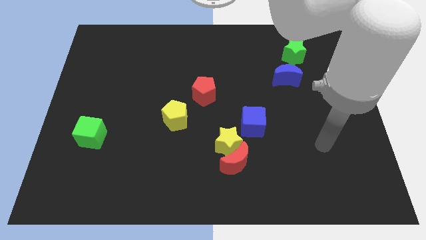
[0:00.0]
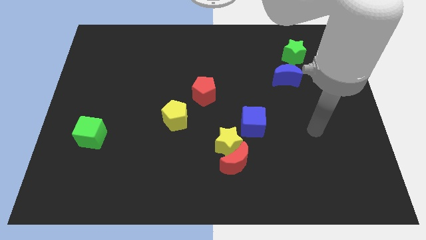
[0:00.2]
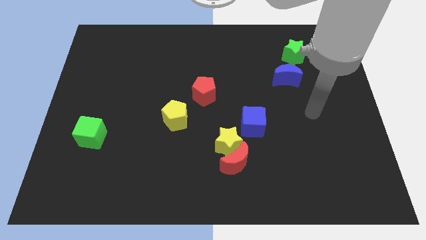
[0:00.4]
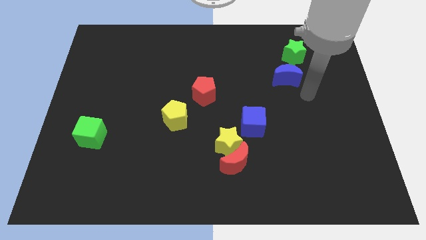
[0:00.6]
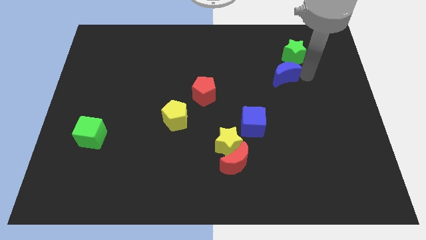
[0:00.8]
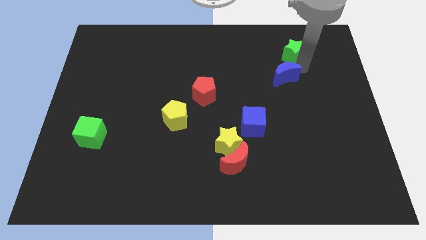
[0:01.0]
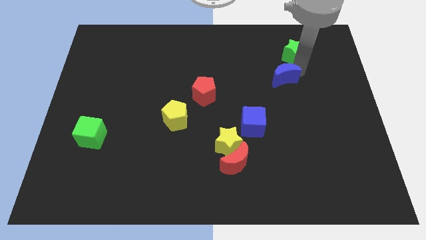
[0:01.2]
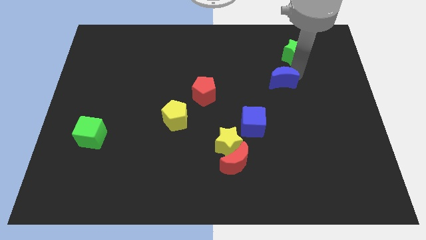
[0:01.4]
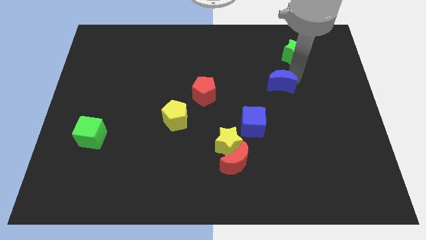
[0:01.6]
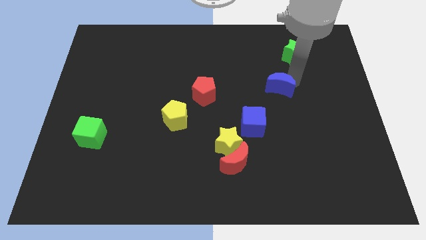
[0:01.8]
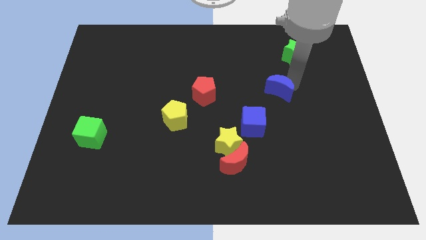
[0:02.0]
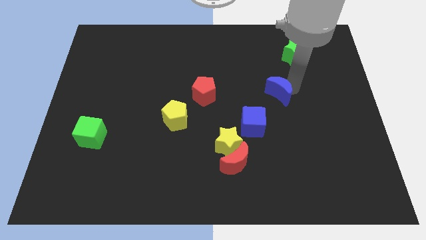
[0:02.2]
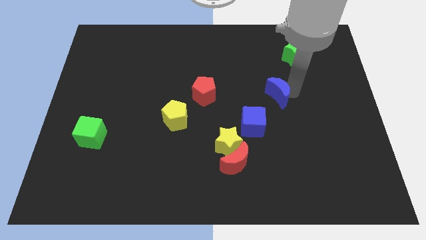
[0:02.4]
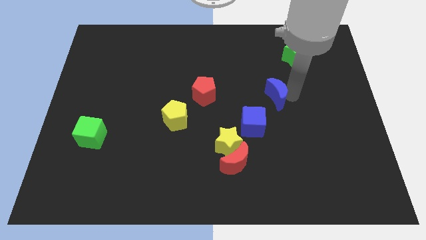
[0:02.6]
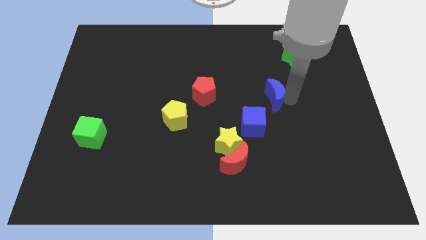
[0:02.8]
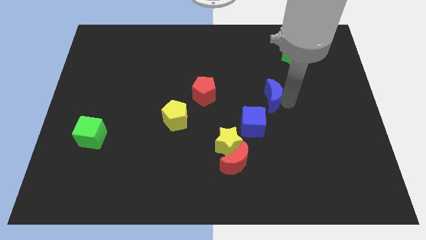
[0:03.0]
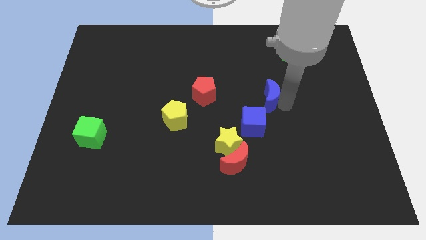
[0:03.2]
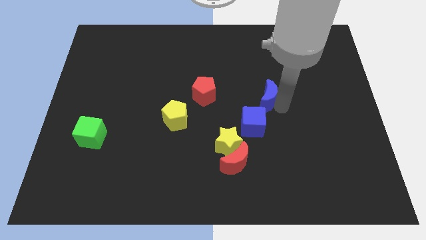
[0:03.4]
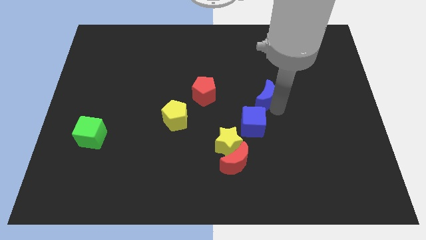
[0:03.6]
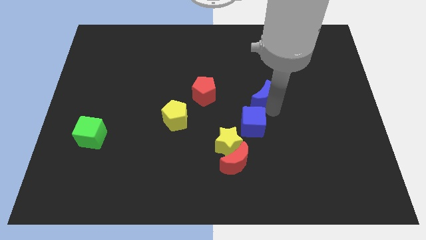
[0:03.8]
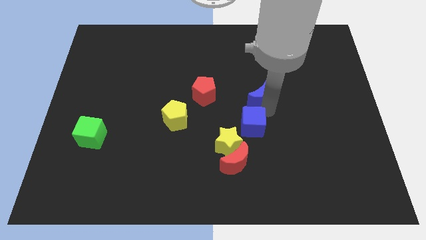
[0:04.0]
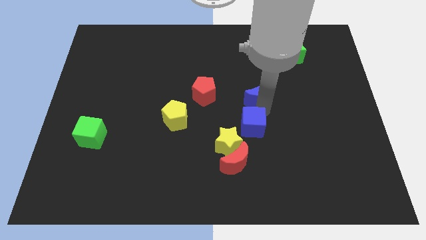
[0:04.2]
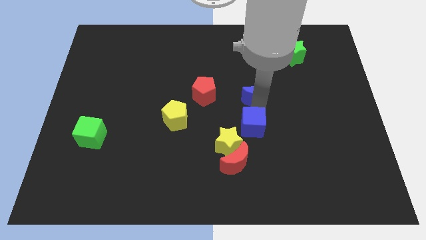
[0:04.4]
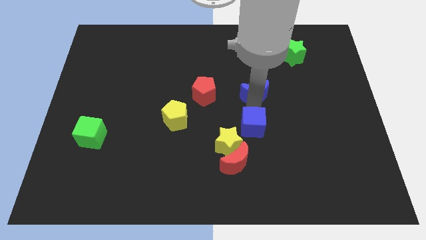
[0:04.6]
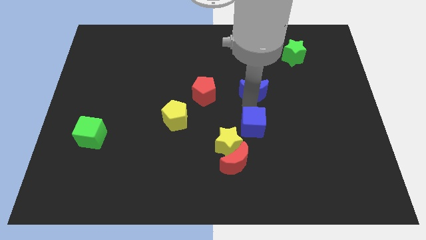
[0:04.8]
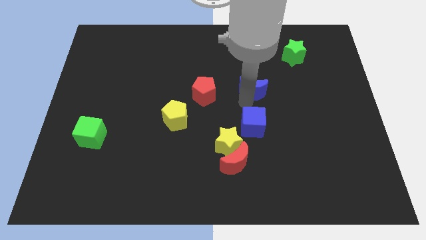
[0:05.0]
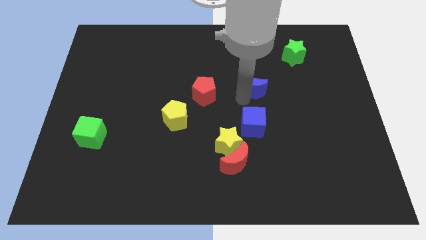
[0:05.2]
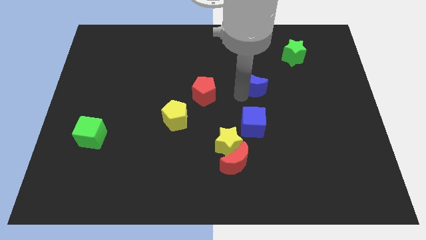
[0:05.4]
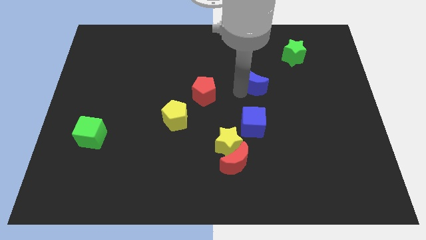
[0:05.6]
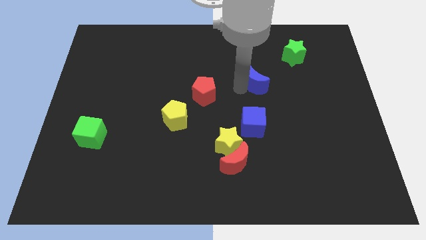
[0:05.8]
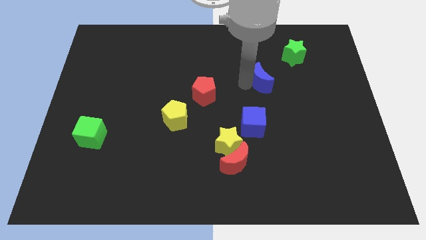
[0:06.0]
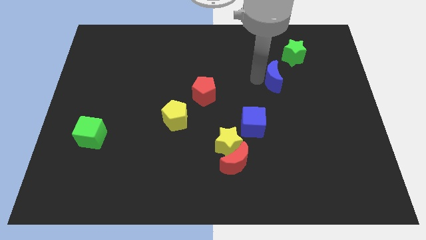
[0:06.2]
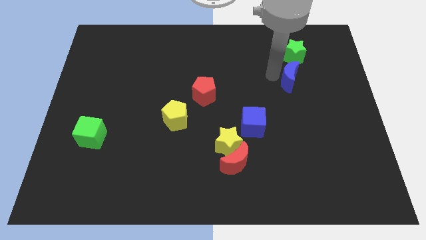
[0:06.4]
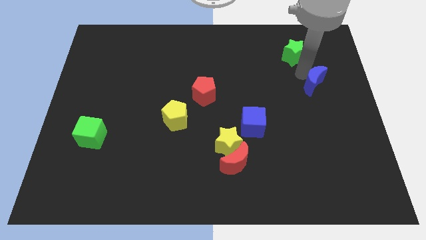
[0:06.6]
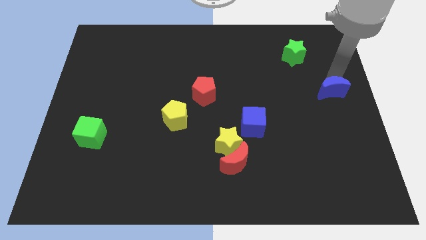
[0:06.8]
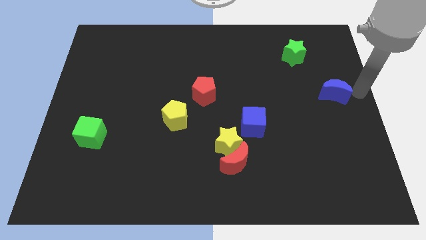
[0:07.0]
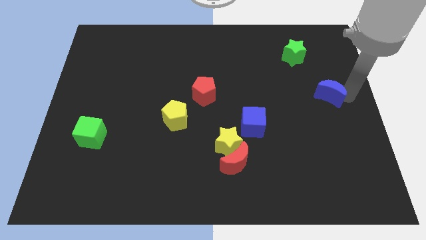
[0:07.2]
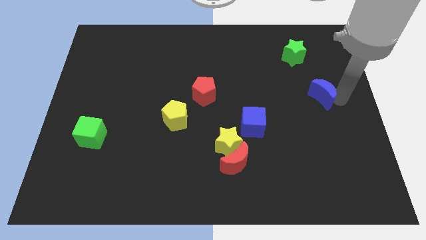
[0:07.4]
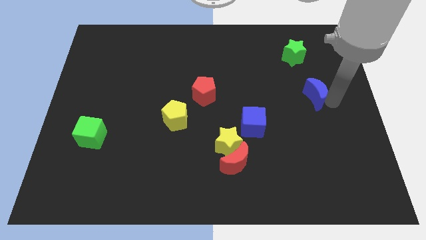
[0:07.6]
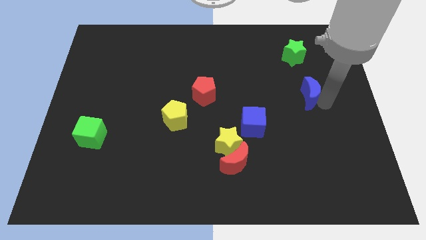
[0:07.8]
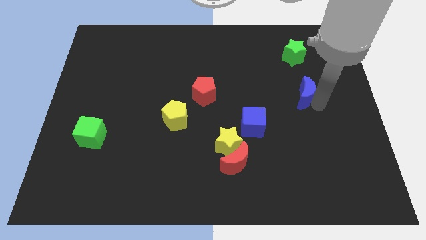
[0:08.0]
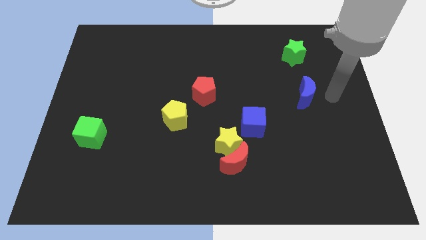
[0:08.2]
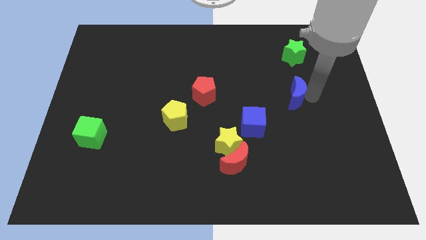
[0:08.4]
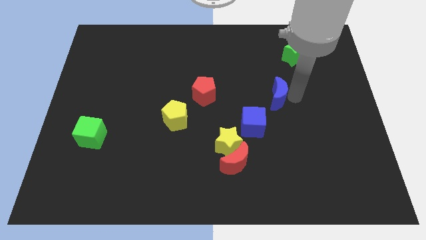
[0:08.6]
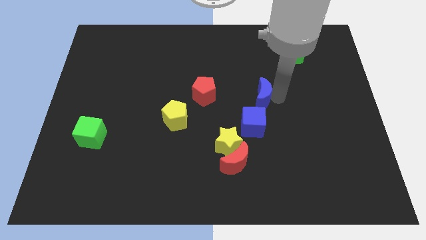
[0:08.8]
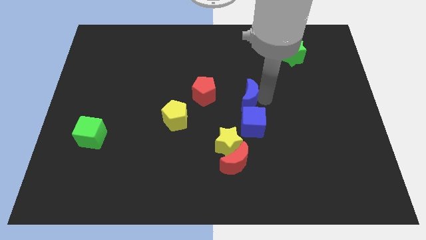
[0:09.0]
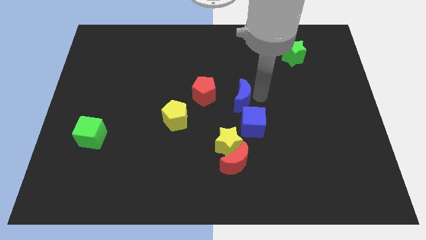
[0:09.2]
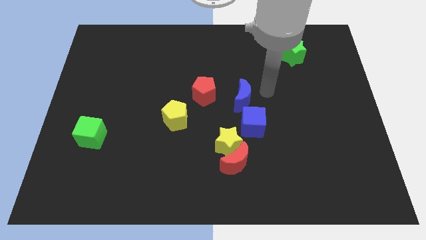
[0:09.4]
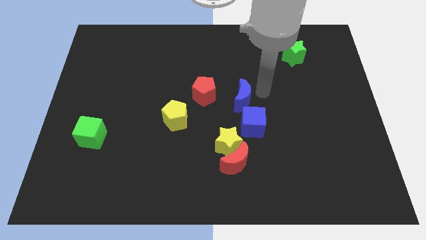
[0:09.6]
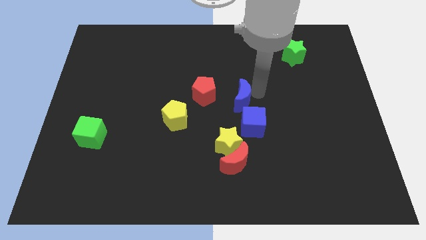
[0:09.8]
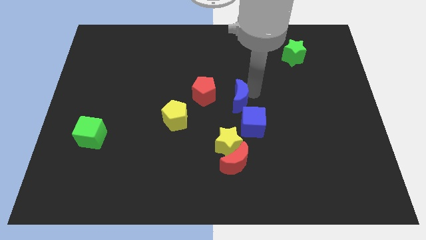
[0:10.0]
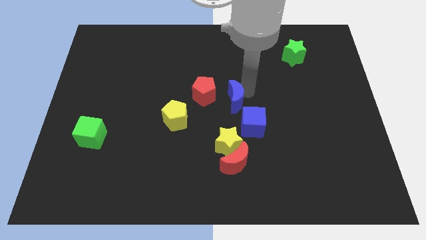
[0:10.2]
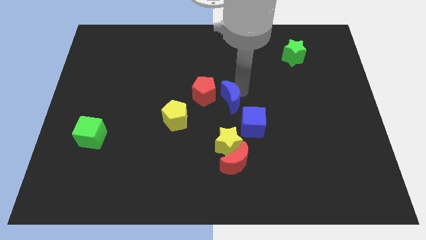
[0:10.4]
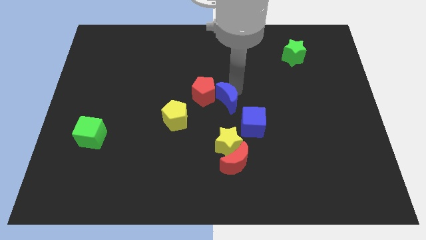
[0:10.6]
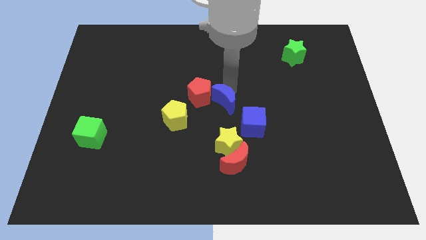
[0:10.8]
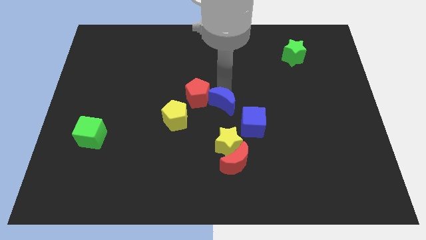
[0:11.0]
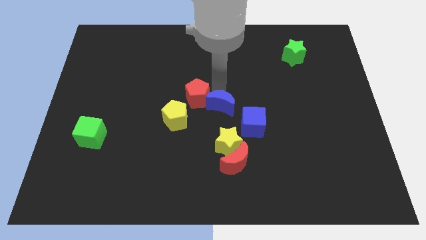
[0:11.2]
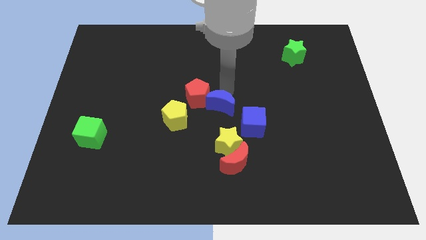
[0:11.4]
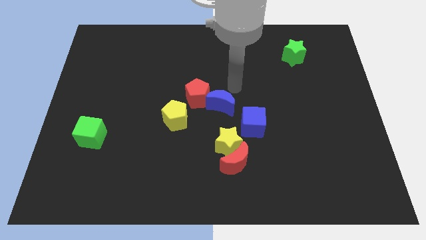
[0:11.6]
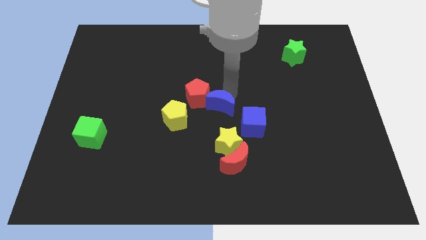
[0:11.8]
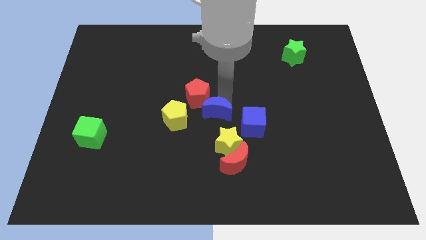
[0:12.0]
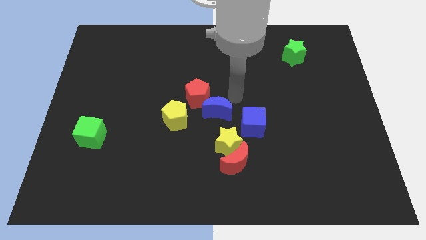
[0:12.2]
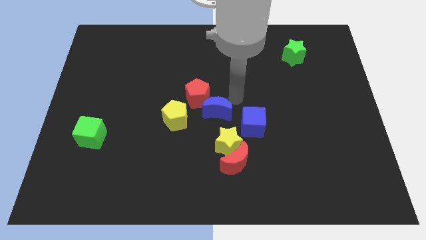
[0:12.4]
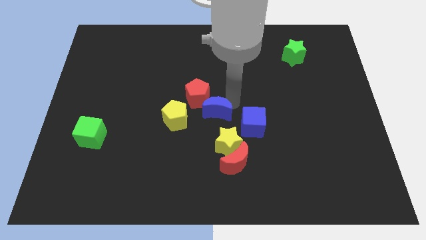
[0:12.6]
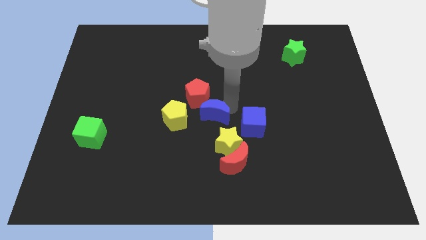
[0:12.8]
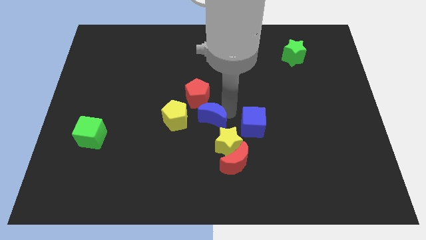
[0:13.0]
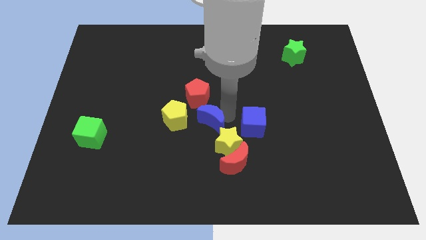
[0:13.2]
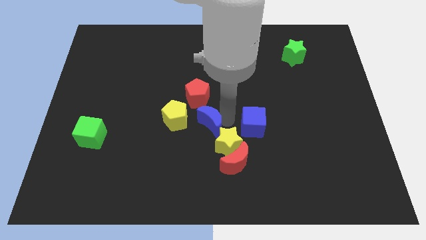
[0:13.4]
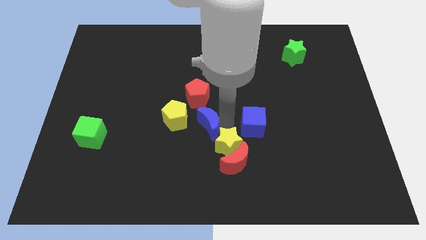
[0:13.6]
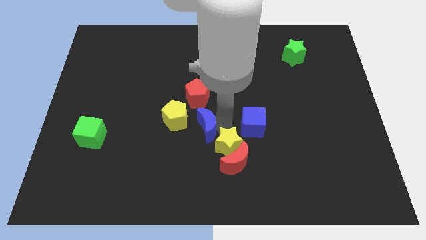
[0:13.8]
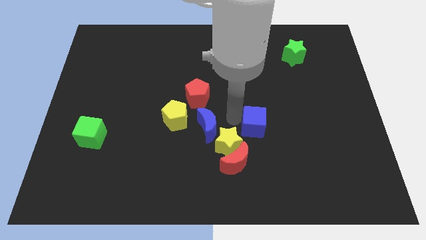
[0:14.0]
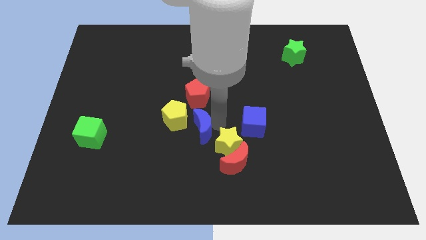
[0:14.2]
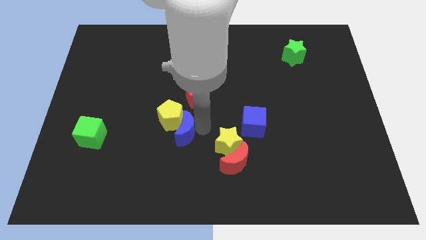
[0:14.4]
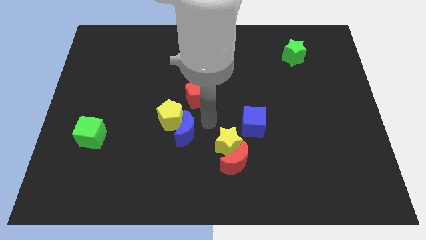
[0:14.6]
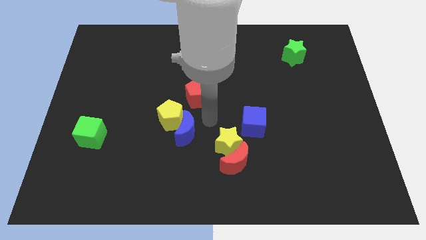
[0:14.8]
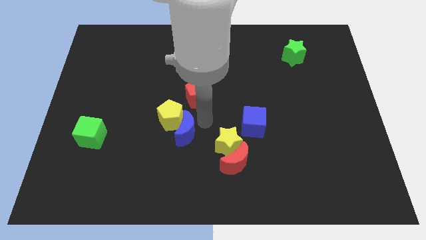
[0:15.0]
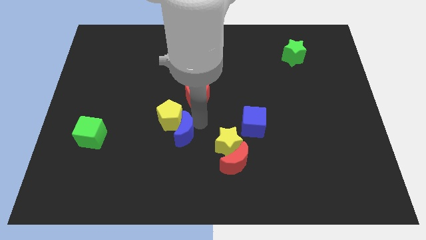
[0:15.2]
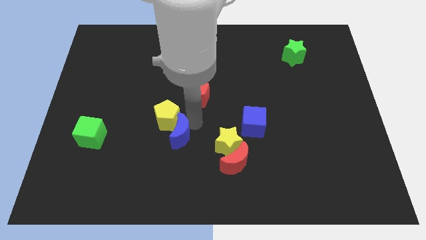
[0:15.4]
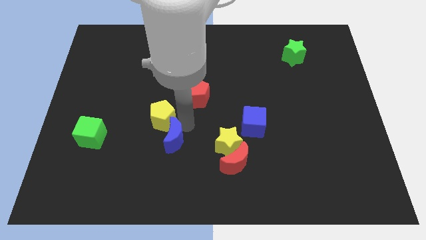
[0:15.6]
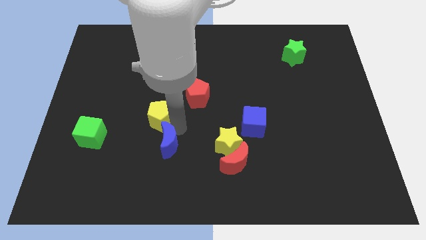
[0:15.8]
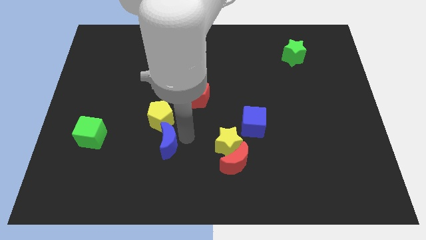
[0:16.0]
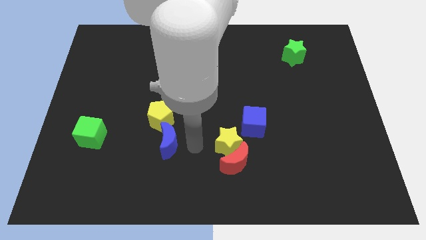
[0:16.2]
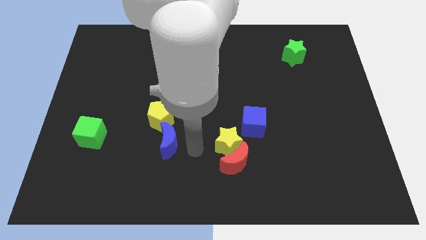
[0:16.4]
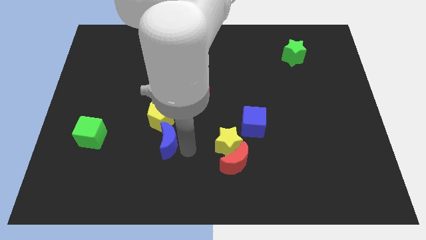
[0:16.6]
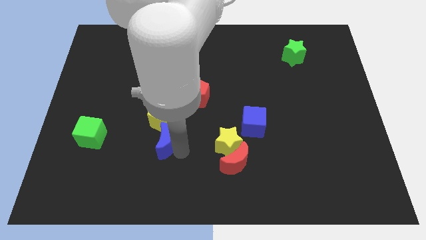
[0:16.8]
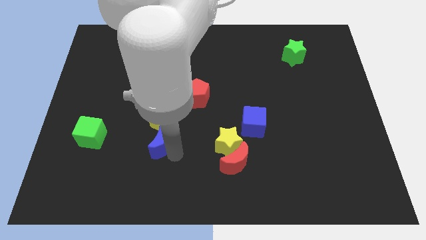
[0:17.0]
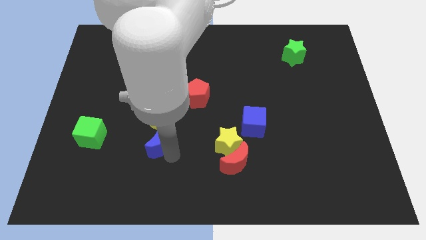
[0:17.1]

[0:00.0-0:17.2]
move the blue moon just right of the green cube
